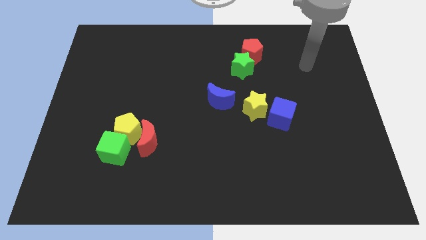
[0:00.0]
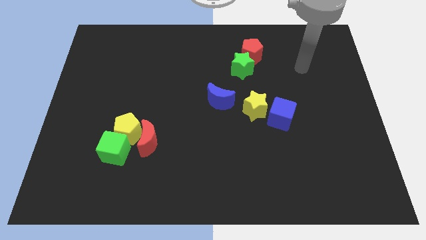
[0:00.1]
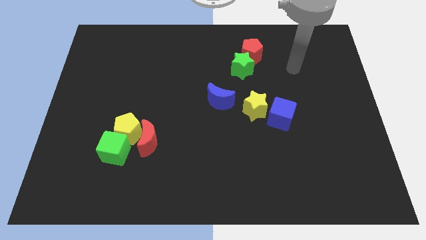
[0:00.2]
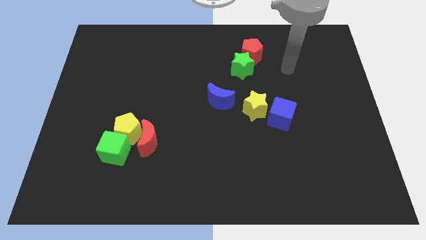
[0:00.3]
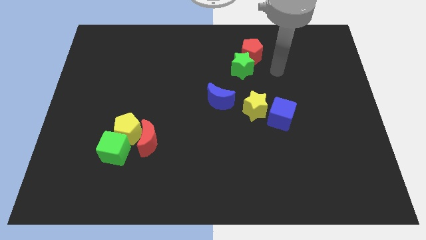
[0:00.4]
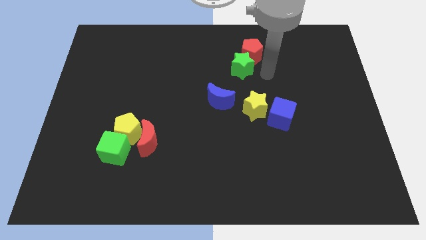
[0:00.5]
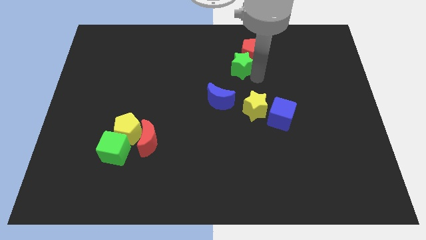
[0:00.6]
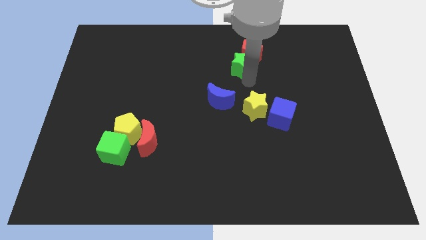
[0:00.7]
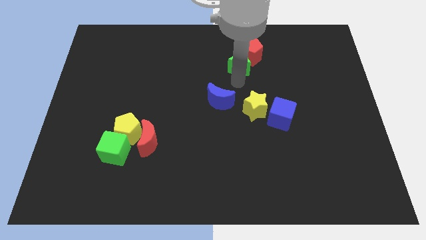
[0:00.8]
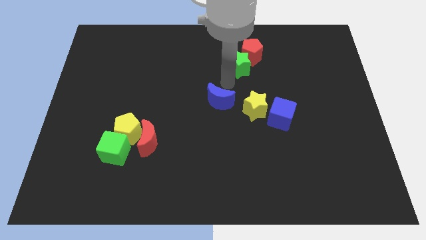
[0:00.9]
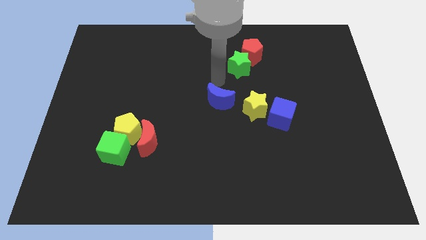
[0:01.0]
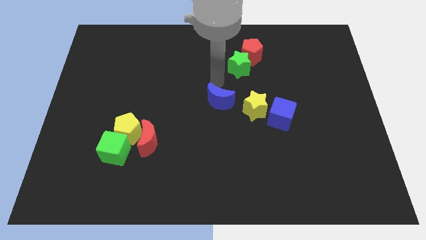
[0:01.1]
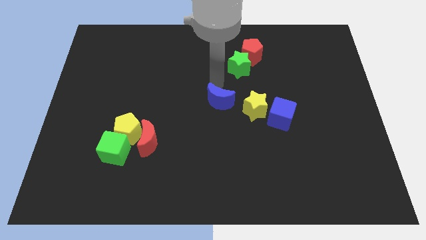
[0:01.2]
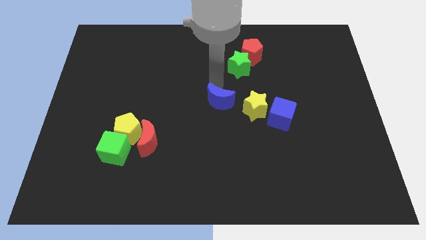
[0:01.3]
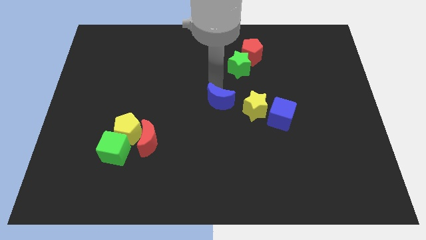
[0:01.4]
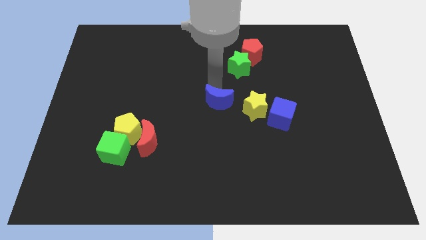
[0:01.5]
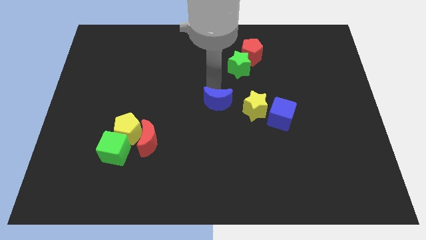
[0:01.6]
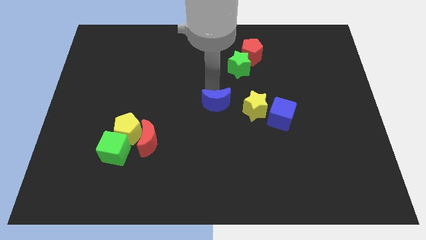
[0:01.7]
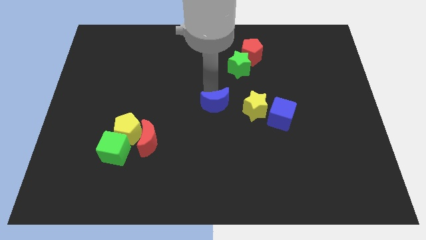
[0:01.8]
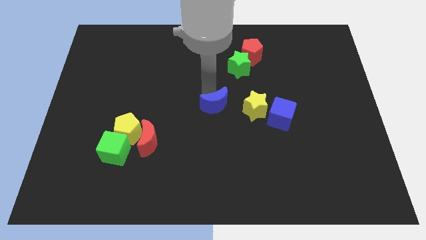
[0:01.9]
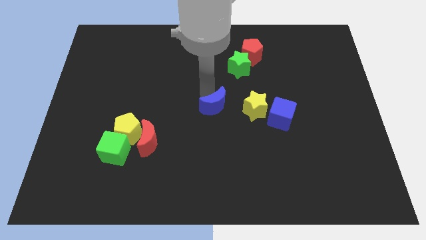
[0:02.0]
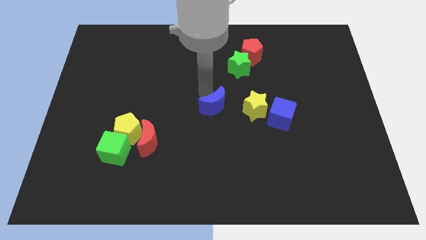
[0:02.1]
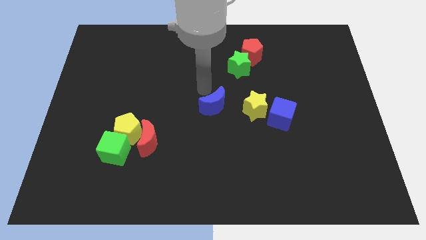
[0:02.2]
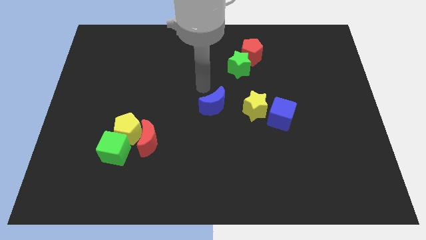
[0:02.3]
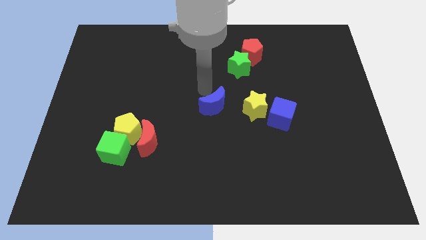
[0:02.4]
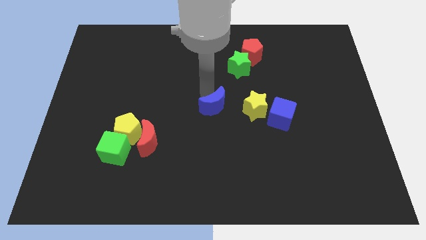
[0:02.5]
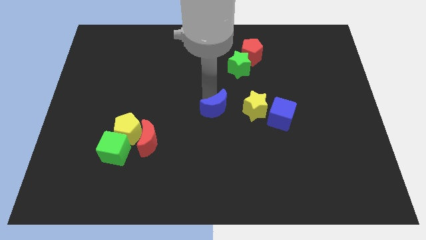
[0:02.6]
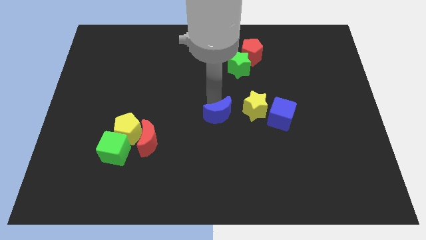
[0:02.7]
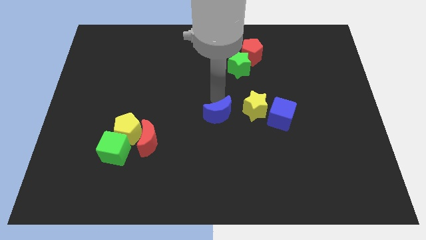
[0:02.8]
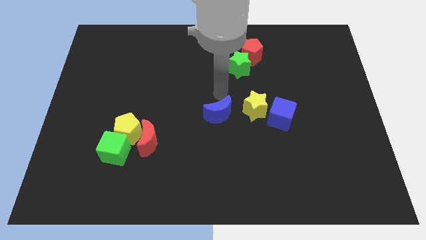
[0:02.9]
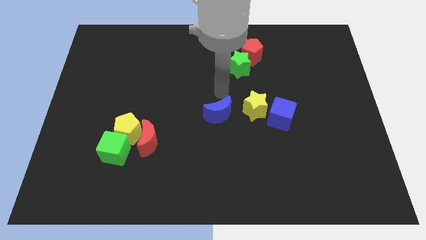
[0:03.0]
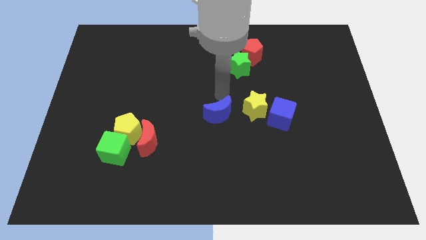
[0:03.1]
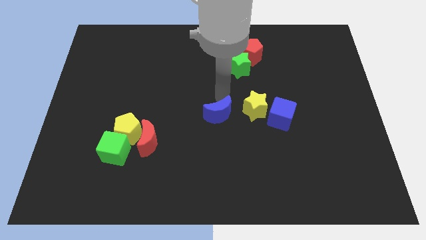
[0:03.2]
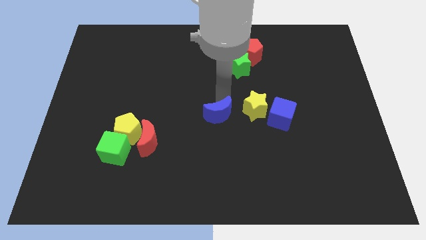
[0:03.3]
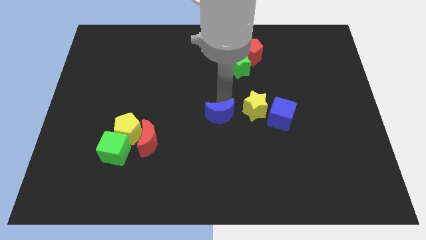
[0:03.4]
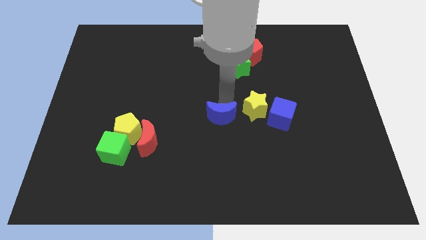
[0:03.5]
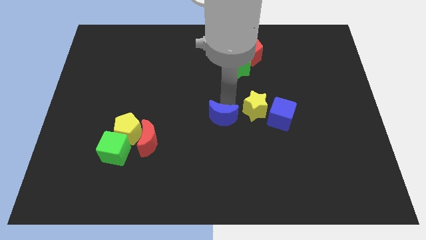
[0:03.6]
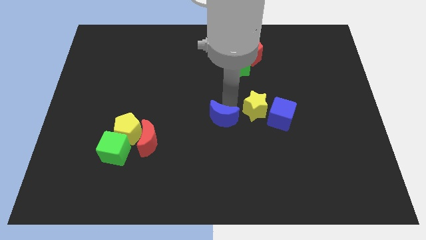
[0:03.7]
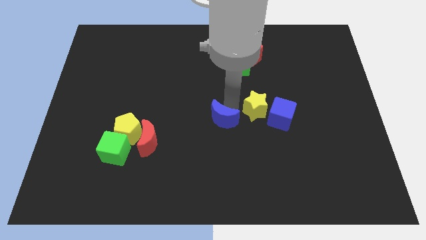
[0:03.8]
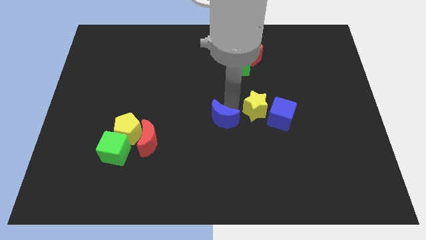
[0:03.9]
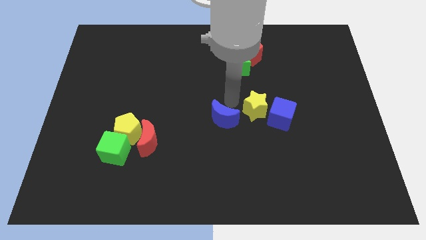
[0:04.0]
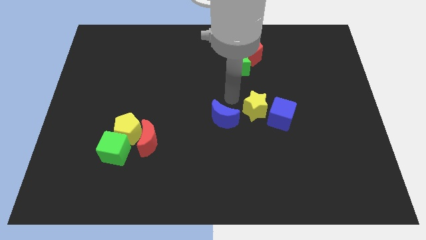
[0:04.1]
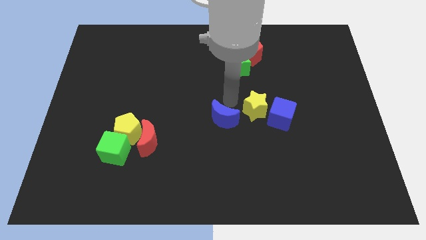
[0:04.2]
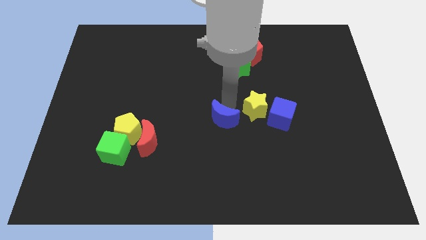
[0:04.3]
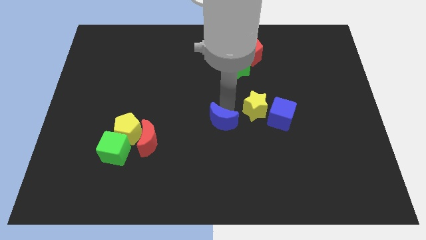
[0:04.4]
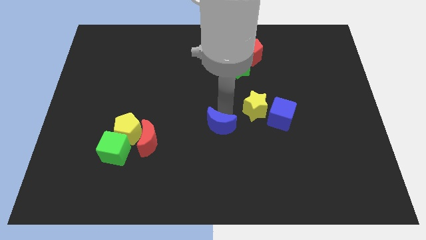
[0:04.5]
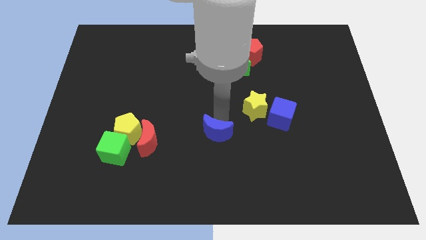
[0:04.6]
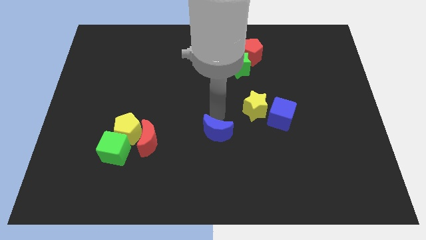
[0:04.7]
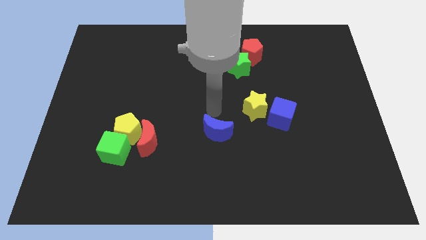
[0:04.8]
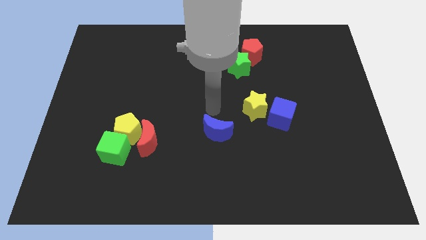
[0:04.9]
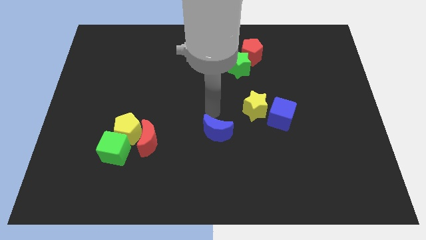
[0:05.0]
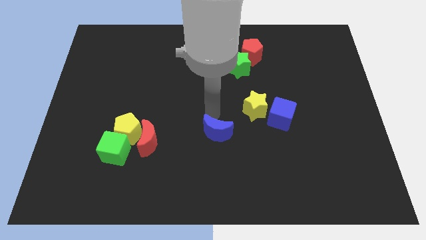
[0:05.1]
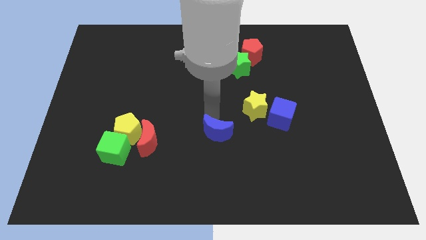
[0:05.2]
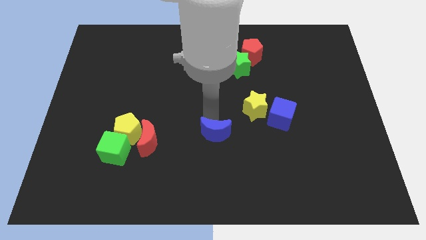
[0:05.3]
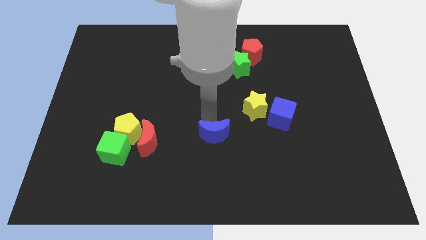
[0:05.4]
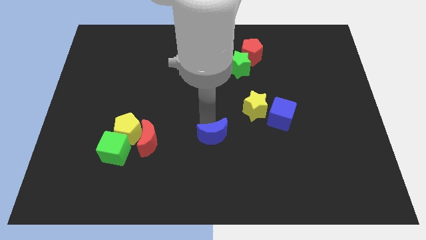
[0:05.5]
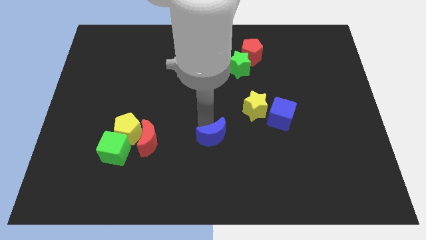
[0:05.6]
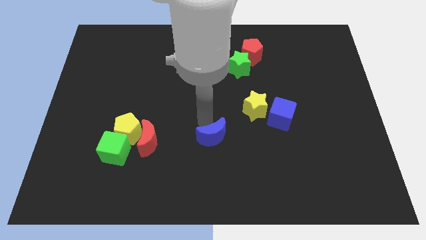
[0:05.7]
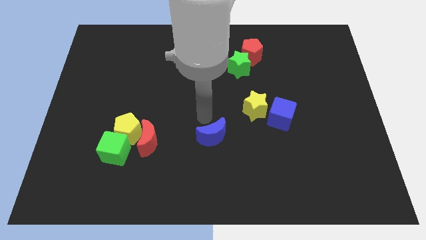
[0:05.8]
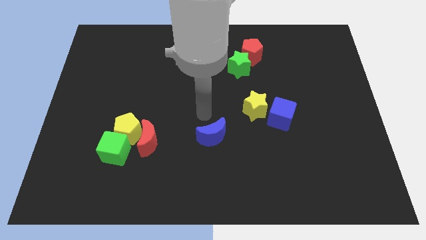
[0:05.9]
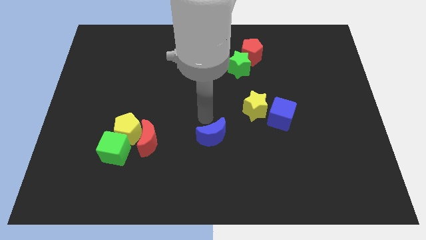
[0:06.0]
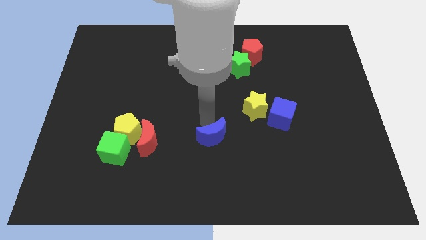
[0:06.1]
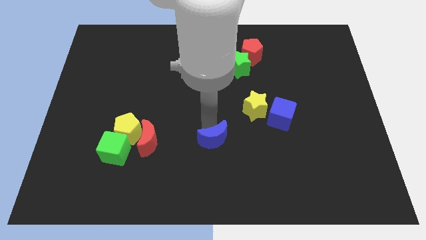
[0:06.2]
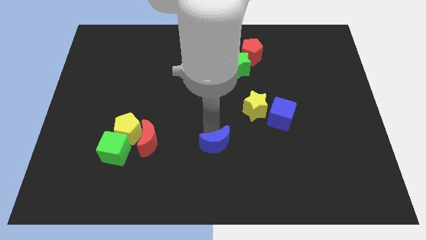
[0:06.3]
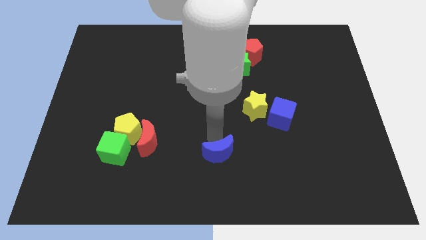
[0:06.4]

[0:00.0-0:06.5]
move the blue moon to the bottom side

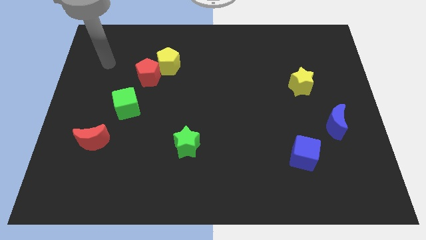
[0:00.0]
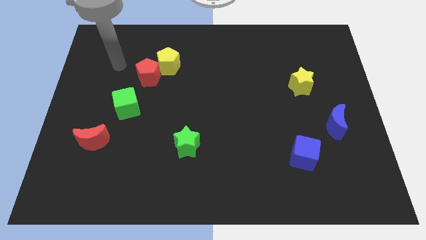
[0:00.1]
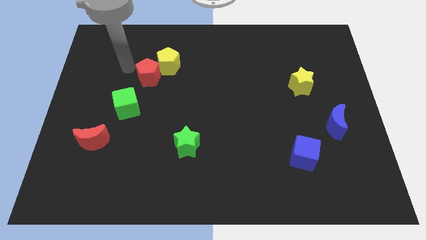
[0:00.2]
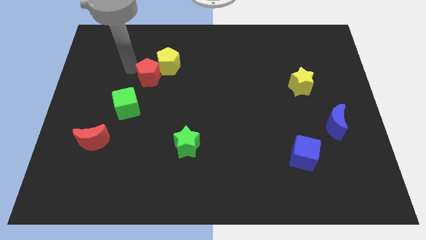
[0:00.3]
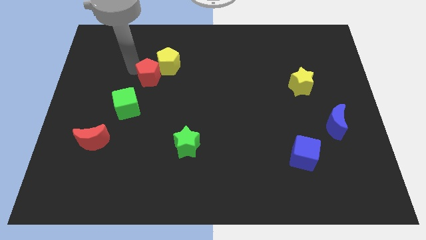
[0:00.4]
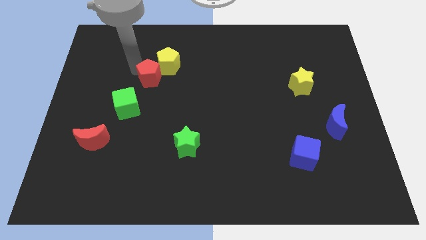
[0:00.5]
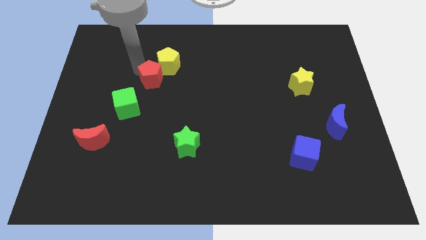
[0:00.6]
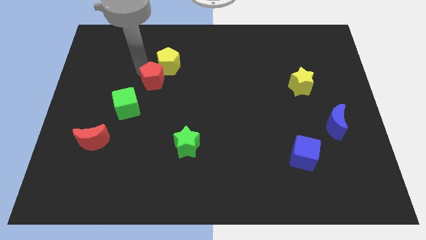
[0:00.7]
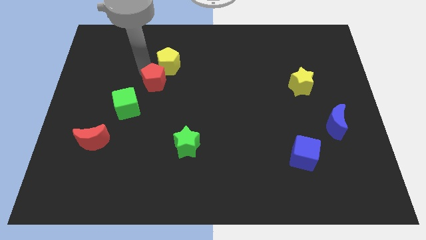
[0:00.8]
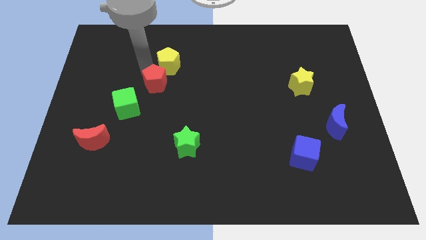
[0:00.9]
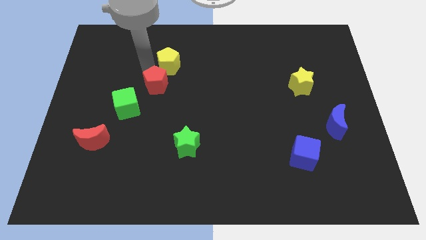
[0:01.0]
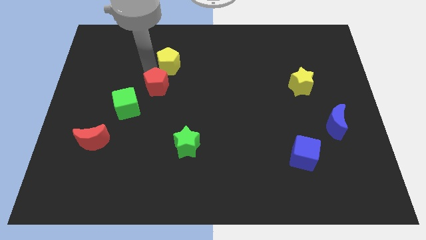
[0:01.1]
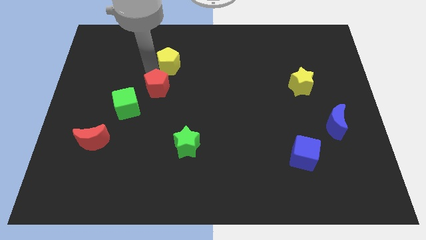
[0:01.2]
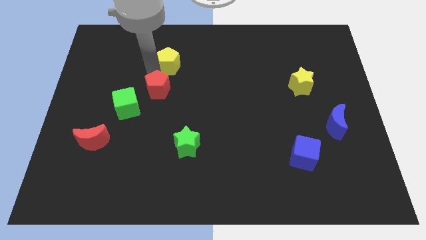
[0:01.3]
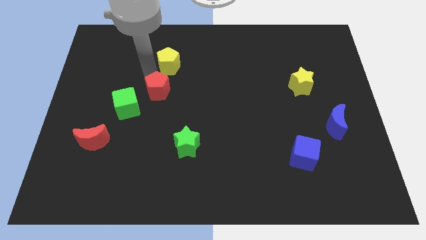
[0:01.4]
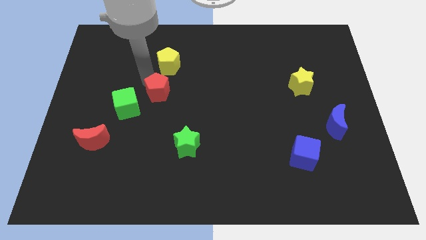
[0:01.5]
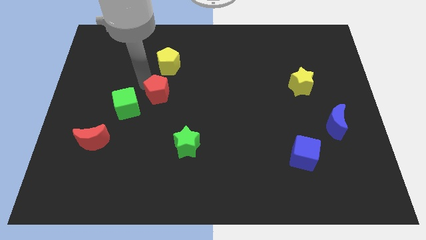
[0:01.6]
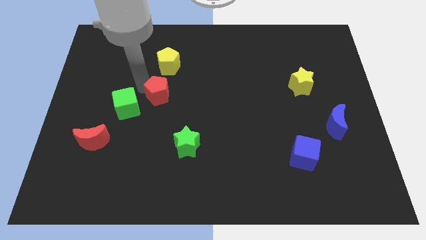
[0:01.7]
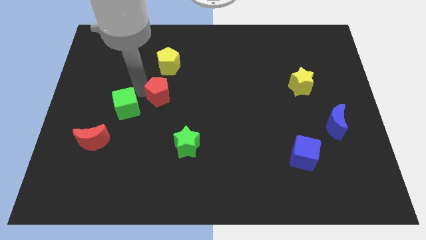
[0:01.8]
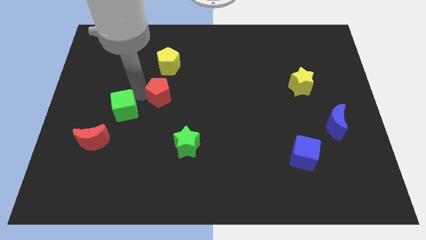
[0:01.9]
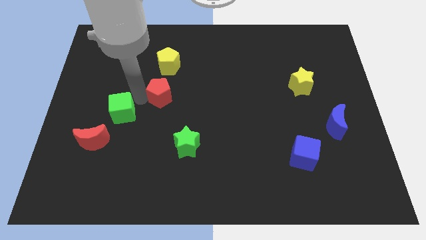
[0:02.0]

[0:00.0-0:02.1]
put the red pentagon to the middle of the board
